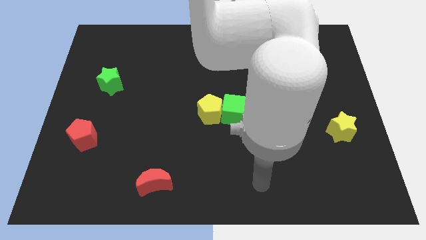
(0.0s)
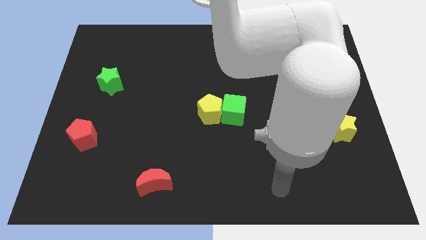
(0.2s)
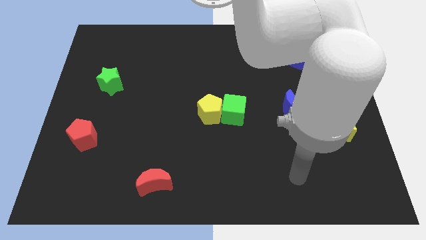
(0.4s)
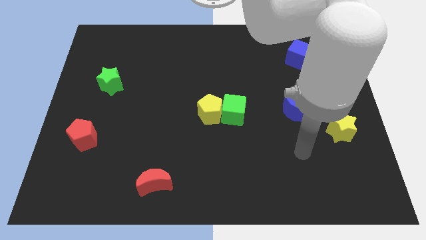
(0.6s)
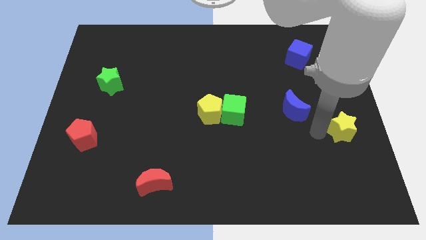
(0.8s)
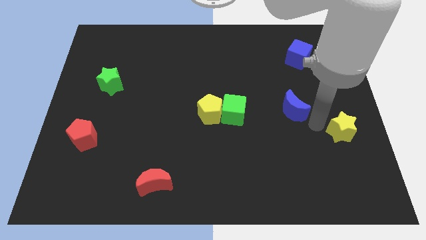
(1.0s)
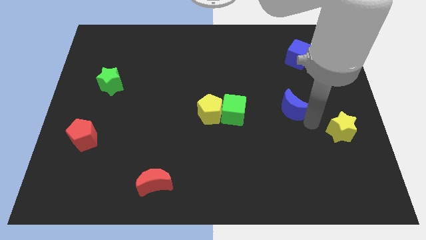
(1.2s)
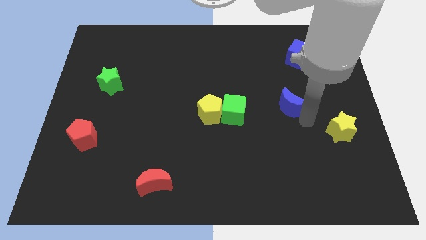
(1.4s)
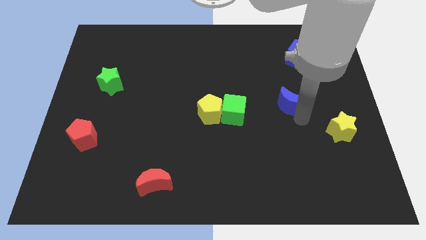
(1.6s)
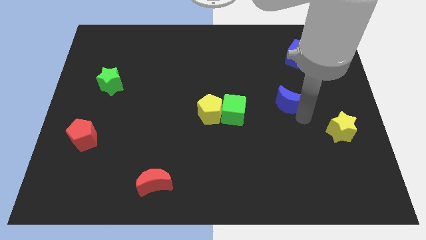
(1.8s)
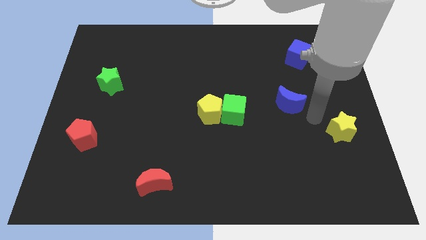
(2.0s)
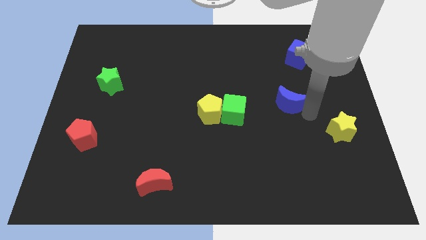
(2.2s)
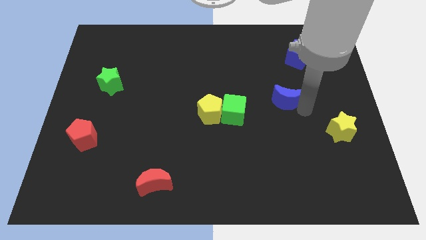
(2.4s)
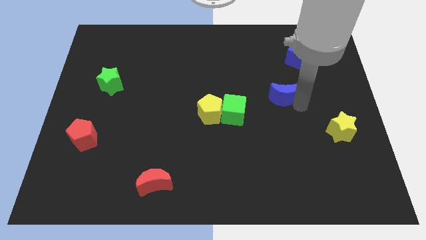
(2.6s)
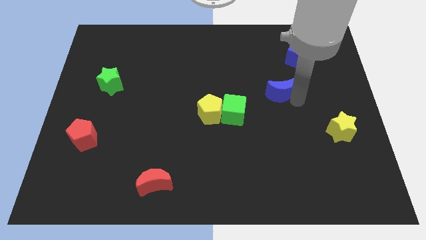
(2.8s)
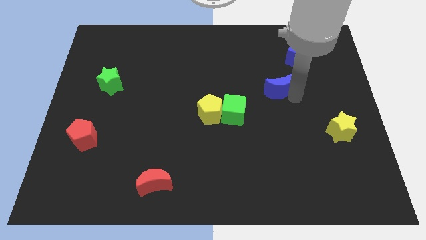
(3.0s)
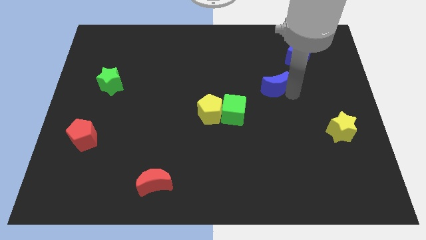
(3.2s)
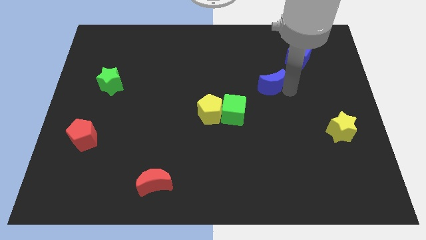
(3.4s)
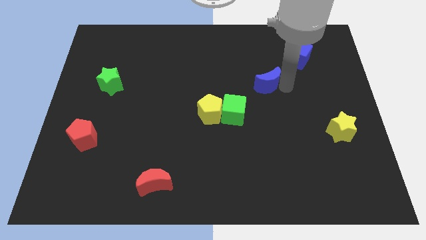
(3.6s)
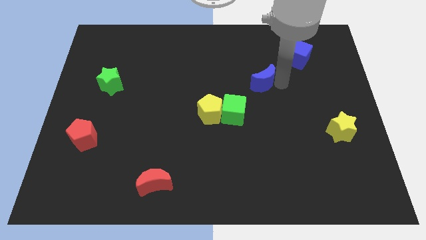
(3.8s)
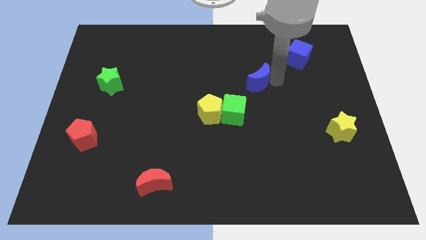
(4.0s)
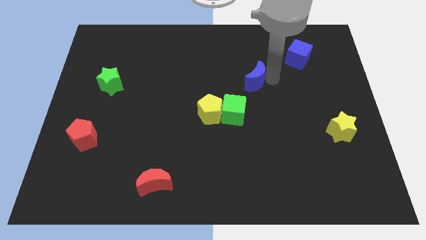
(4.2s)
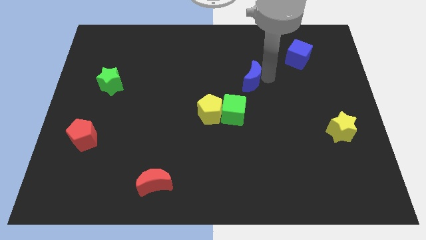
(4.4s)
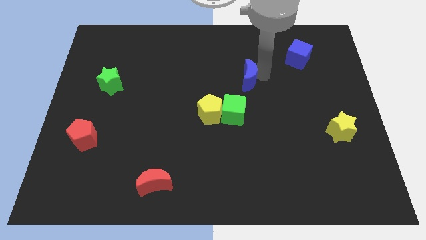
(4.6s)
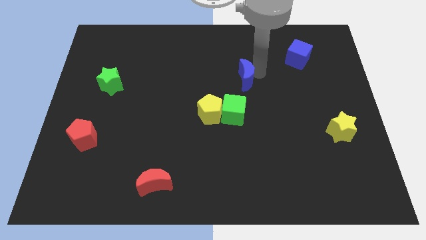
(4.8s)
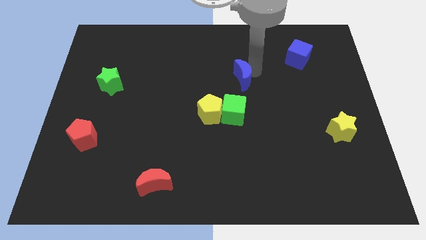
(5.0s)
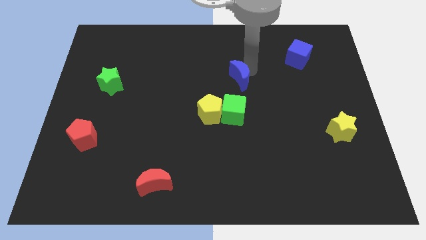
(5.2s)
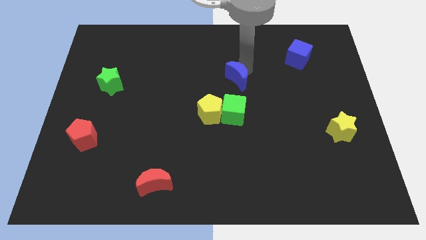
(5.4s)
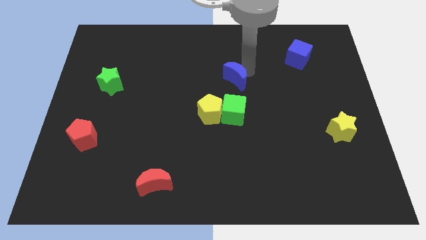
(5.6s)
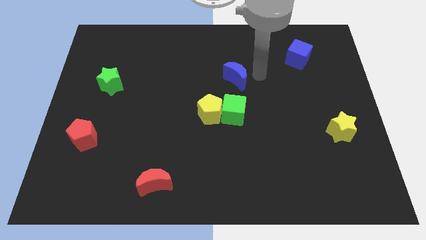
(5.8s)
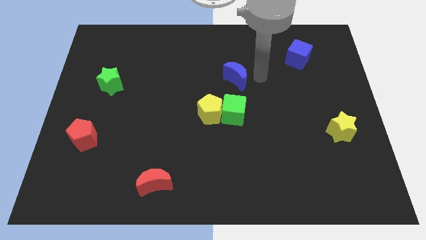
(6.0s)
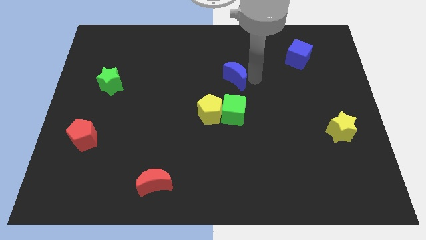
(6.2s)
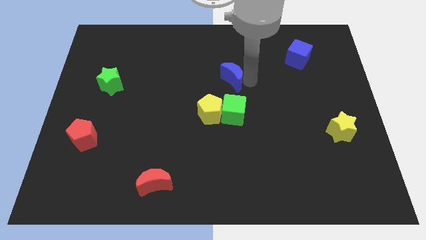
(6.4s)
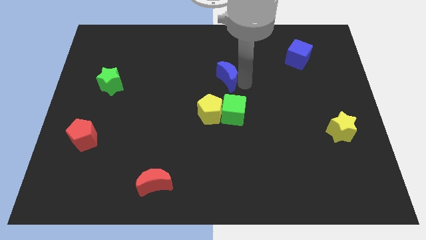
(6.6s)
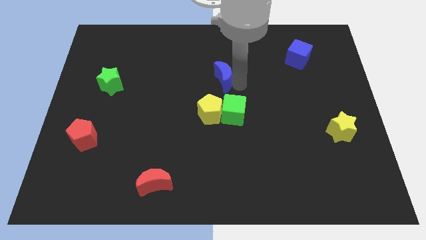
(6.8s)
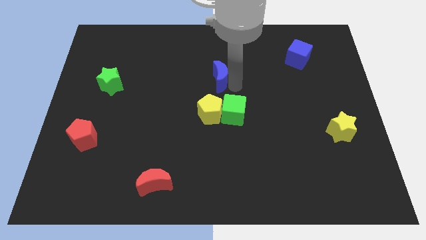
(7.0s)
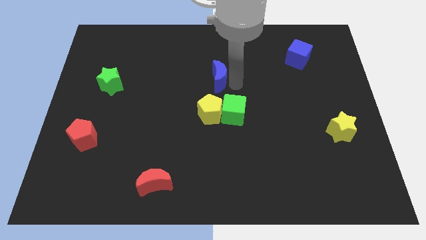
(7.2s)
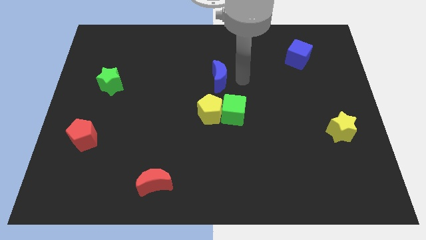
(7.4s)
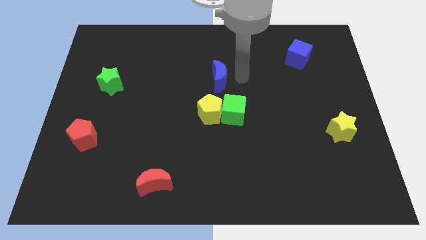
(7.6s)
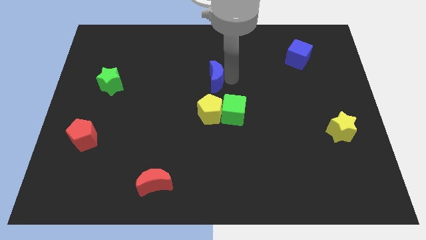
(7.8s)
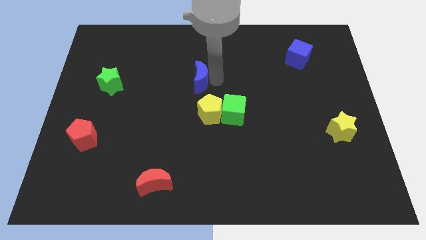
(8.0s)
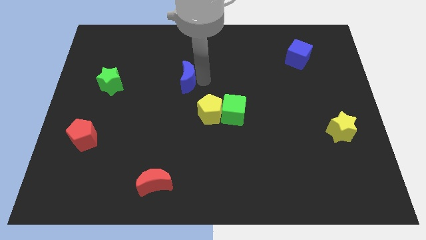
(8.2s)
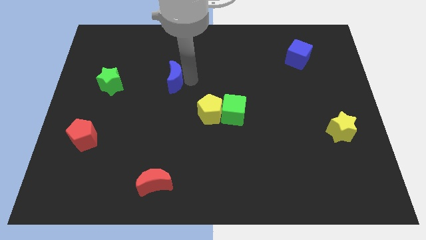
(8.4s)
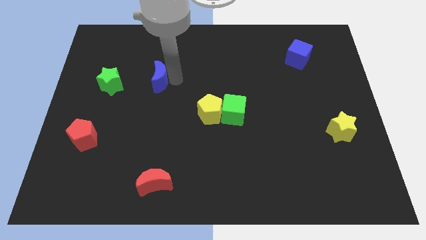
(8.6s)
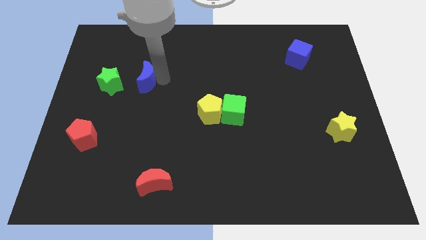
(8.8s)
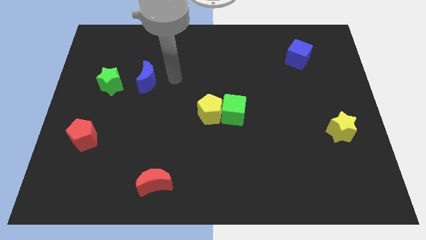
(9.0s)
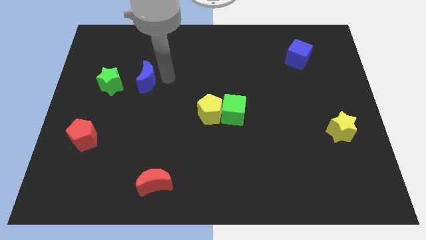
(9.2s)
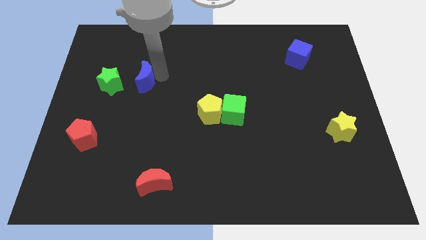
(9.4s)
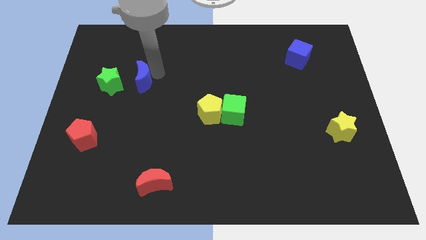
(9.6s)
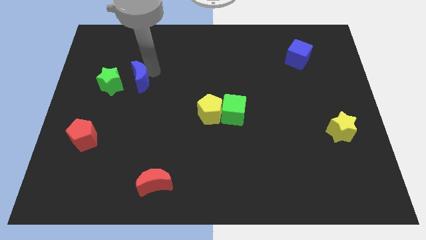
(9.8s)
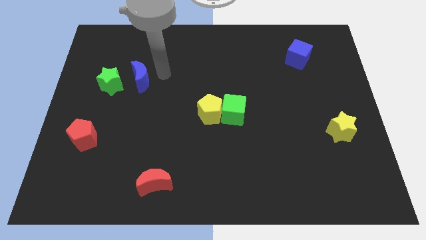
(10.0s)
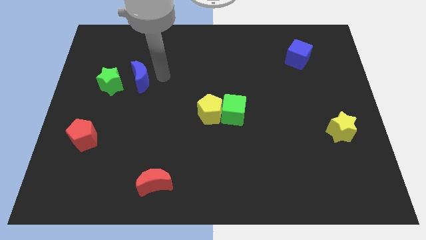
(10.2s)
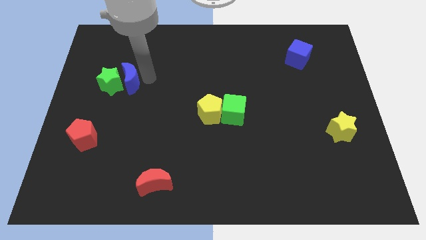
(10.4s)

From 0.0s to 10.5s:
put the blue moon close to the green star

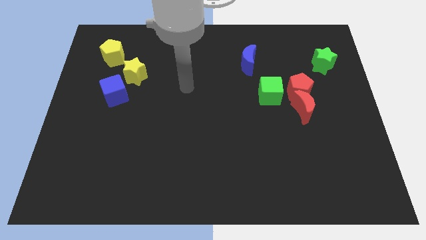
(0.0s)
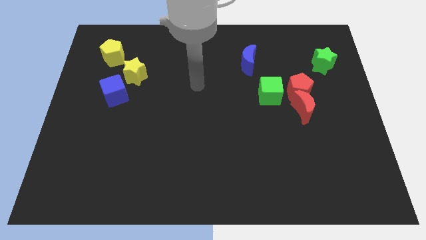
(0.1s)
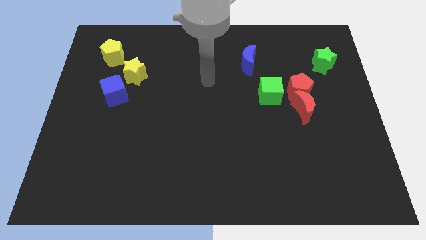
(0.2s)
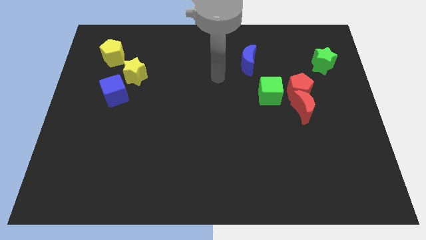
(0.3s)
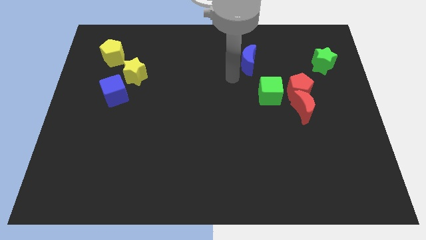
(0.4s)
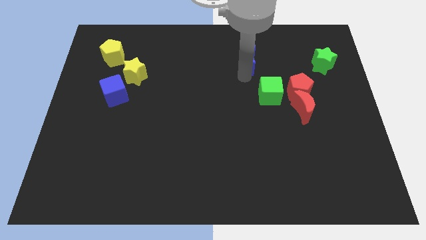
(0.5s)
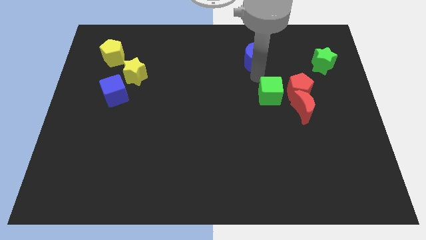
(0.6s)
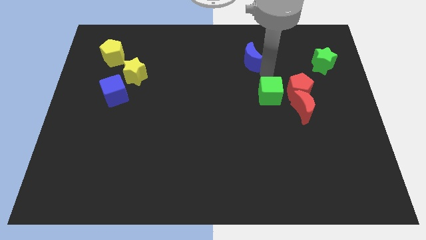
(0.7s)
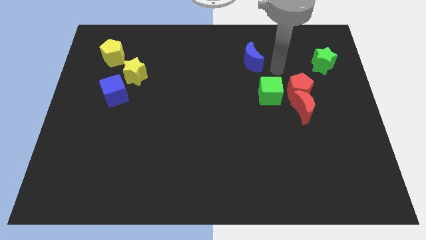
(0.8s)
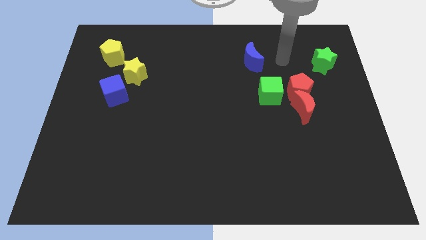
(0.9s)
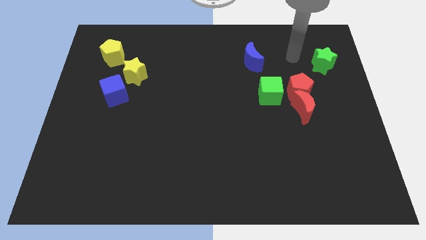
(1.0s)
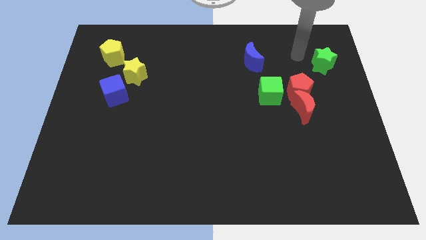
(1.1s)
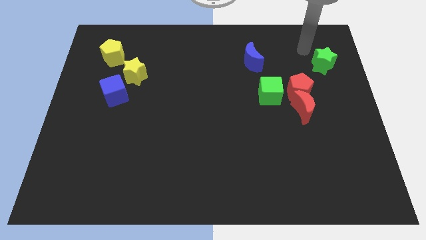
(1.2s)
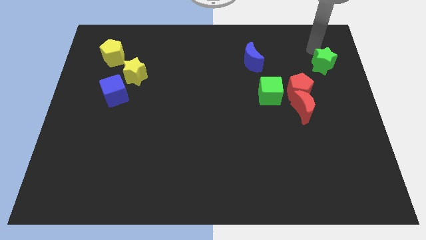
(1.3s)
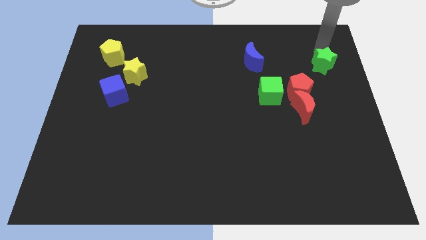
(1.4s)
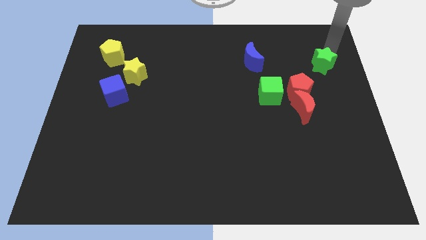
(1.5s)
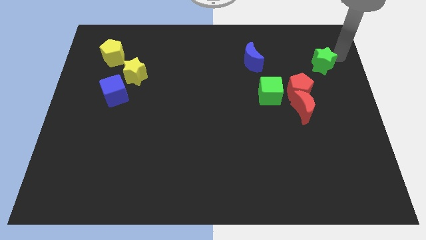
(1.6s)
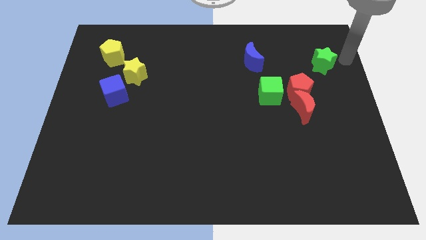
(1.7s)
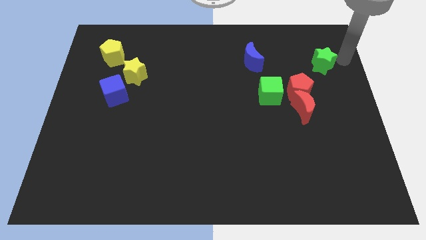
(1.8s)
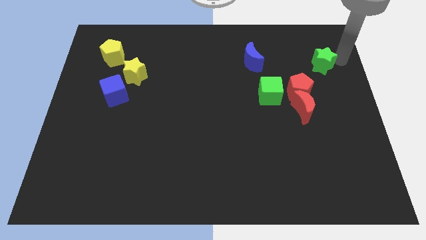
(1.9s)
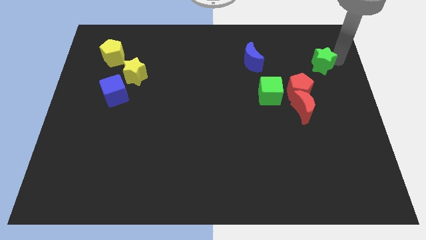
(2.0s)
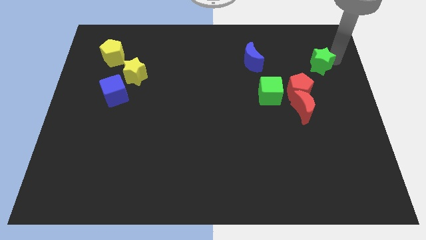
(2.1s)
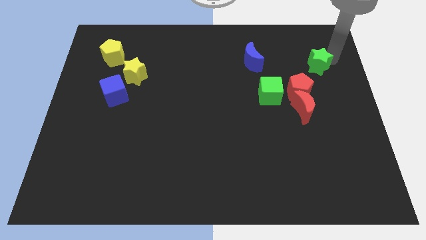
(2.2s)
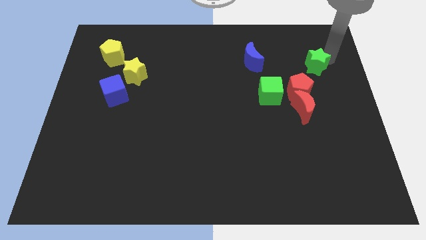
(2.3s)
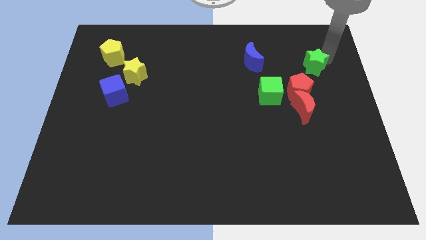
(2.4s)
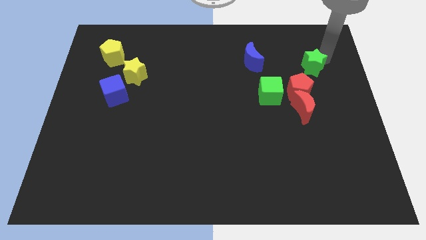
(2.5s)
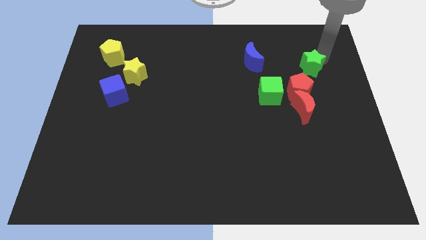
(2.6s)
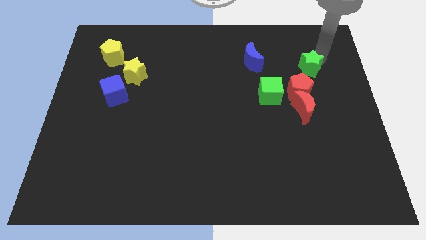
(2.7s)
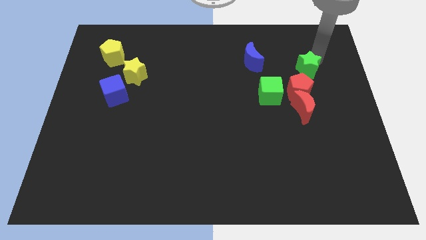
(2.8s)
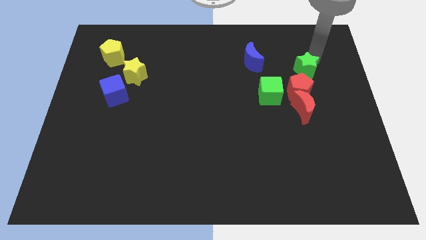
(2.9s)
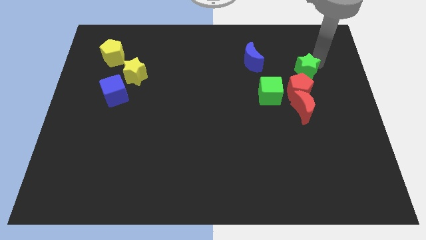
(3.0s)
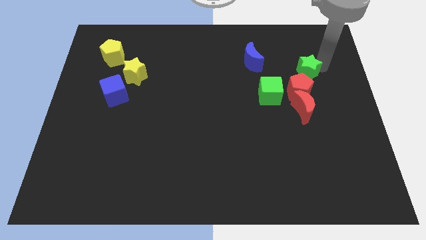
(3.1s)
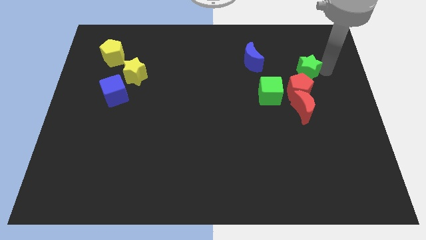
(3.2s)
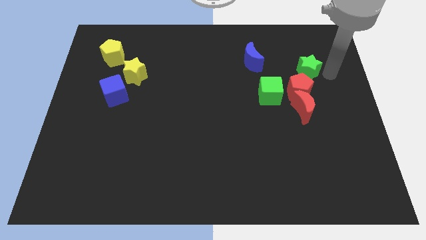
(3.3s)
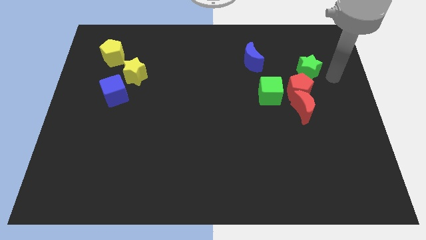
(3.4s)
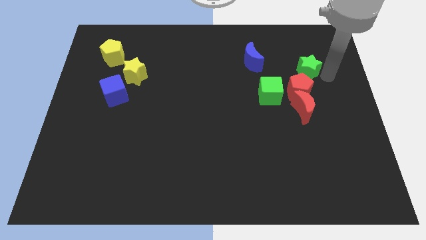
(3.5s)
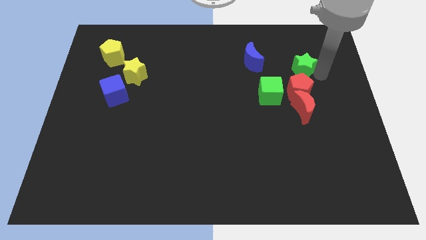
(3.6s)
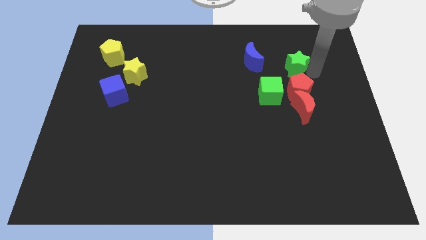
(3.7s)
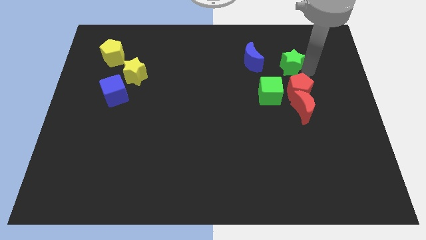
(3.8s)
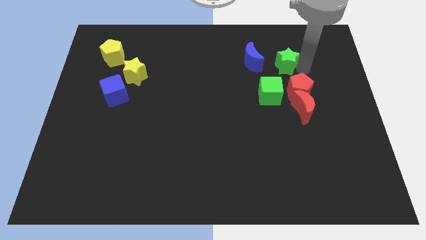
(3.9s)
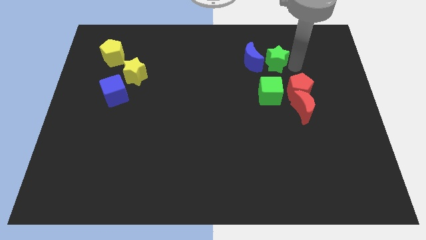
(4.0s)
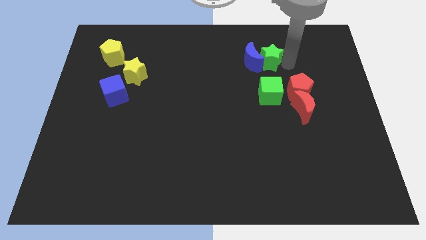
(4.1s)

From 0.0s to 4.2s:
slide the green star towards the blue moon
